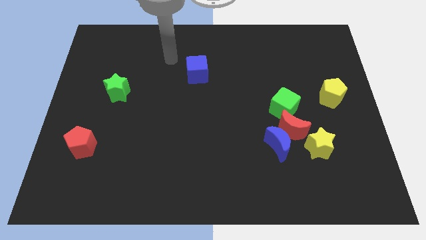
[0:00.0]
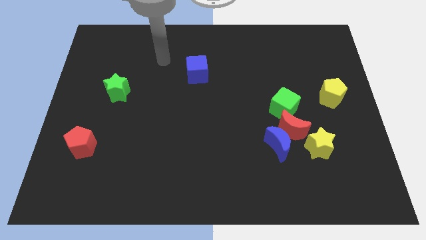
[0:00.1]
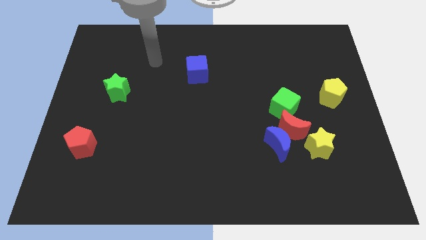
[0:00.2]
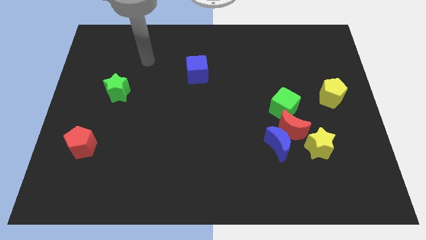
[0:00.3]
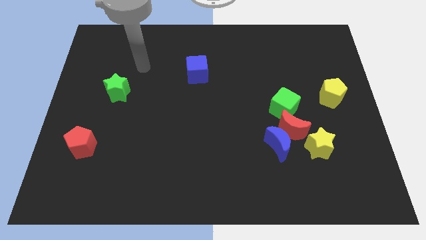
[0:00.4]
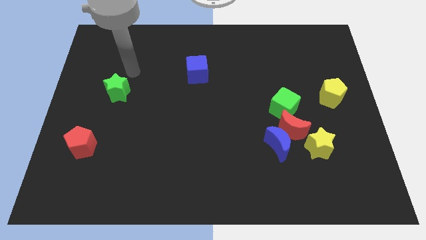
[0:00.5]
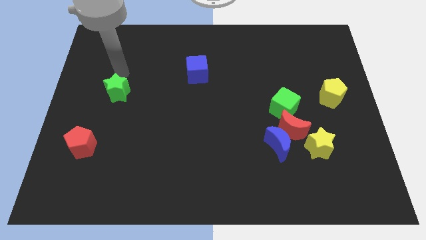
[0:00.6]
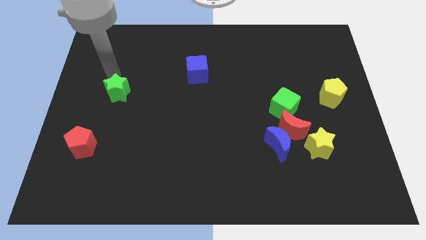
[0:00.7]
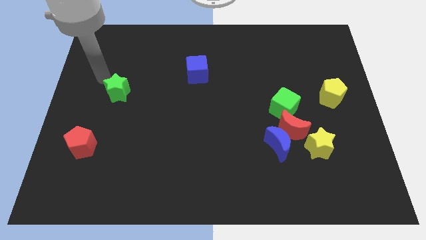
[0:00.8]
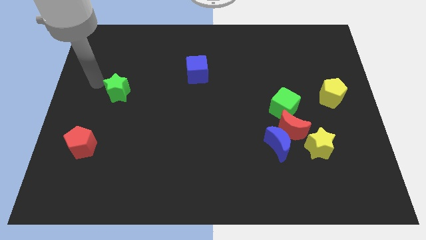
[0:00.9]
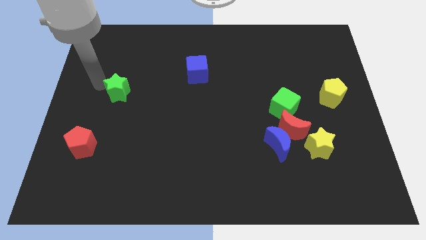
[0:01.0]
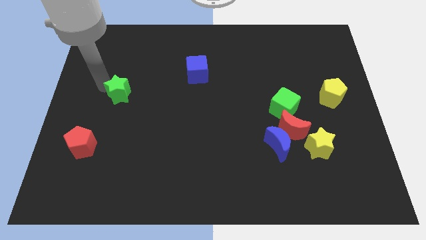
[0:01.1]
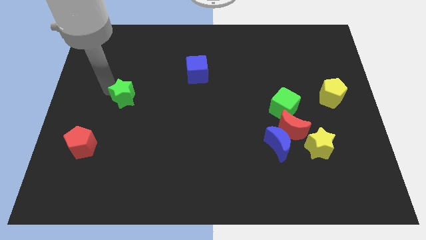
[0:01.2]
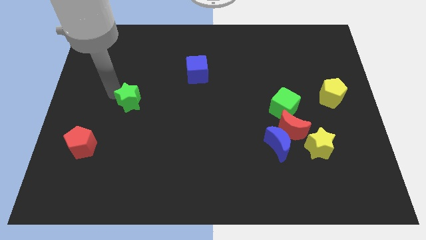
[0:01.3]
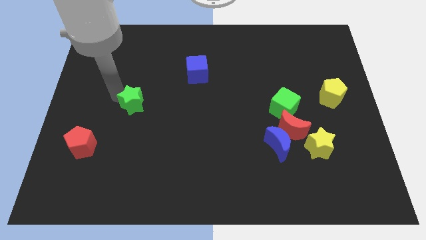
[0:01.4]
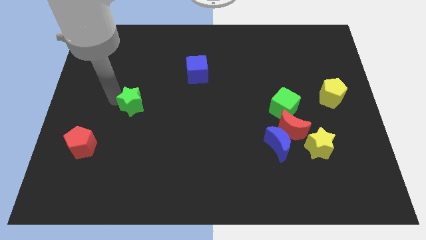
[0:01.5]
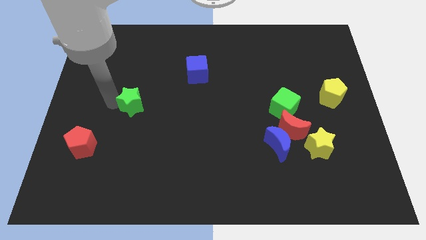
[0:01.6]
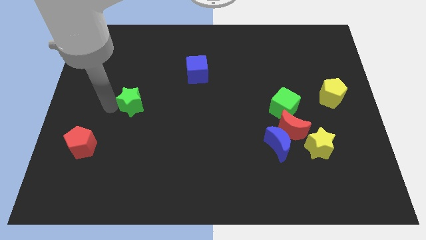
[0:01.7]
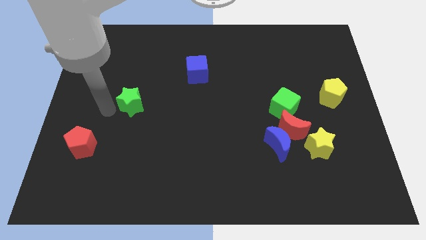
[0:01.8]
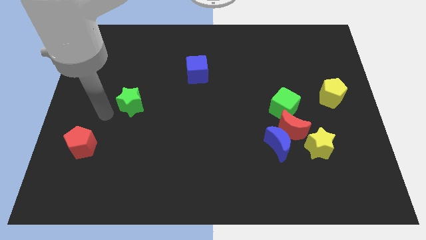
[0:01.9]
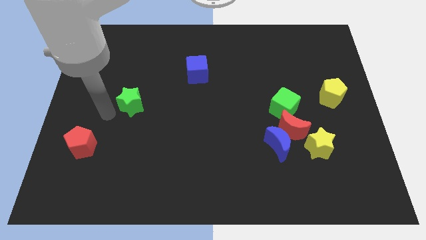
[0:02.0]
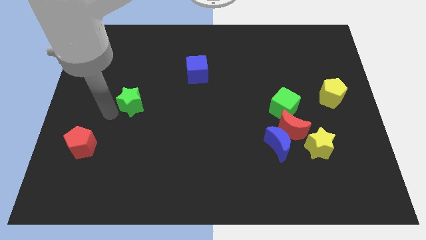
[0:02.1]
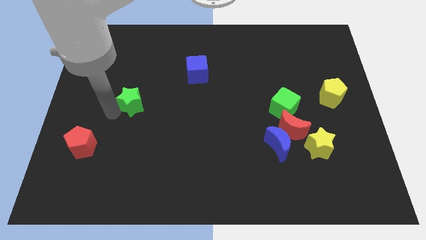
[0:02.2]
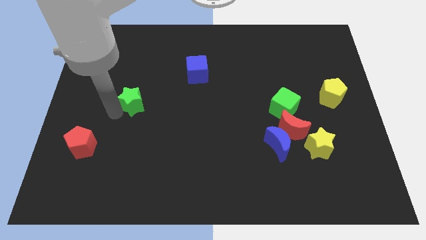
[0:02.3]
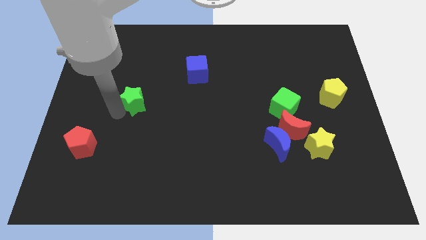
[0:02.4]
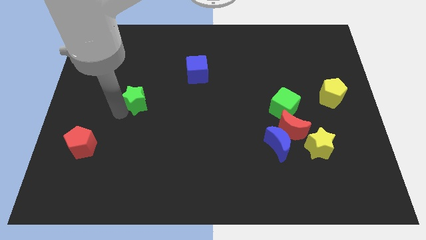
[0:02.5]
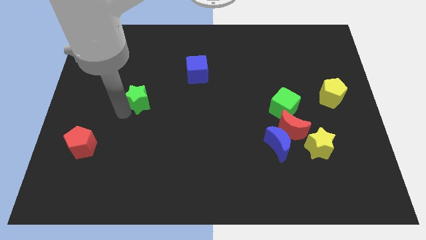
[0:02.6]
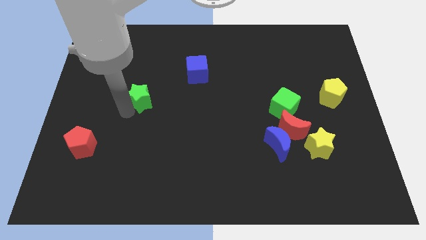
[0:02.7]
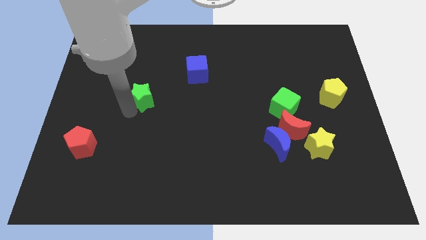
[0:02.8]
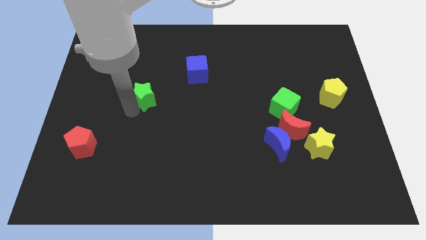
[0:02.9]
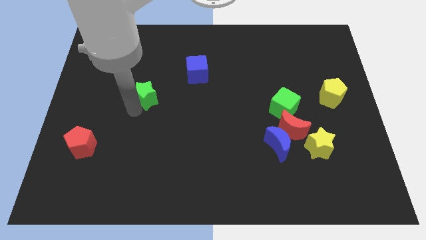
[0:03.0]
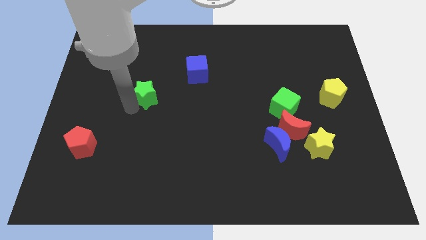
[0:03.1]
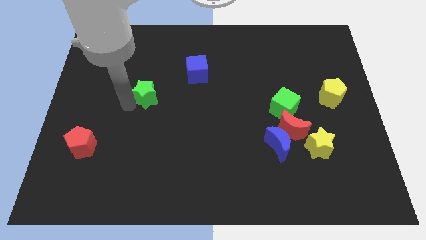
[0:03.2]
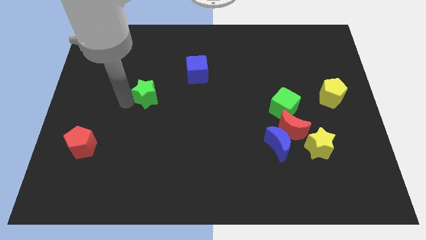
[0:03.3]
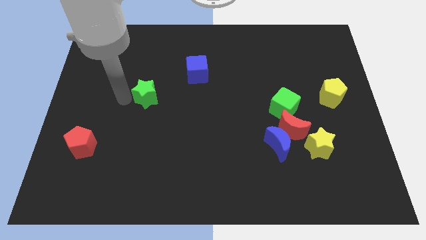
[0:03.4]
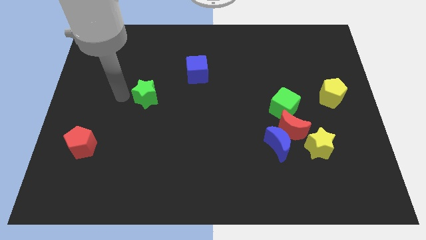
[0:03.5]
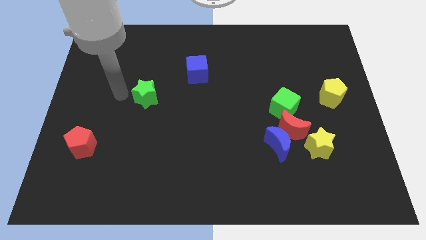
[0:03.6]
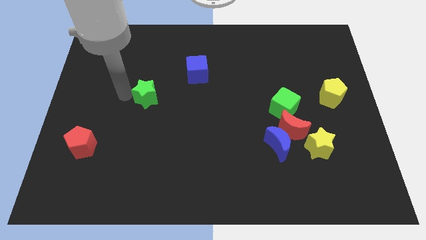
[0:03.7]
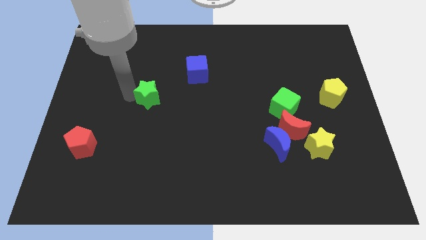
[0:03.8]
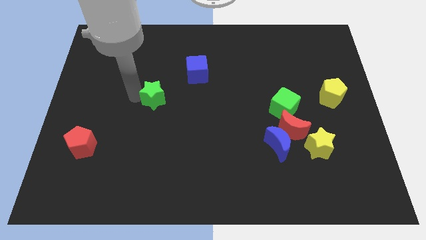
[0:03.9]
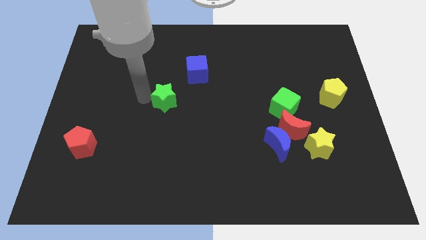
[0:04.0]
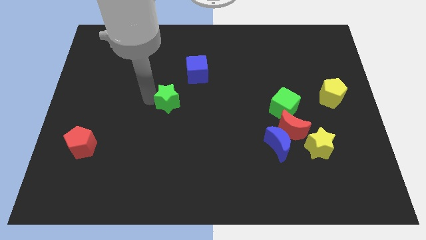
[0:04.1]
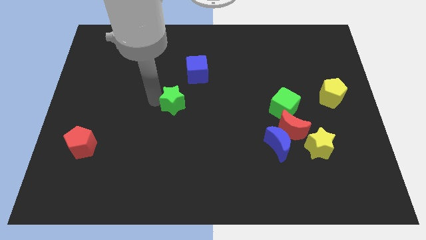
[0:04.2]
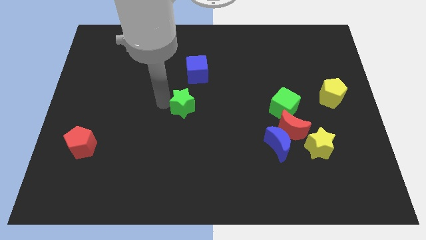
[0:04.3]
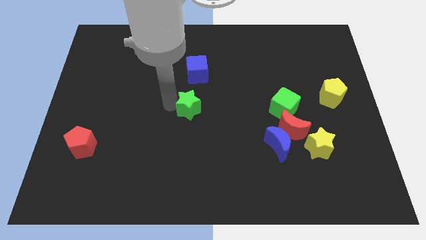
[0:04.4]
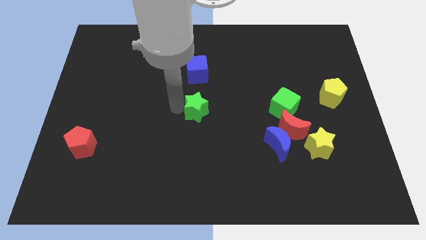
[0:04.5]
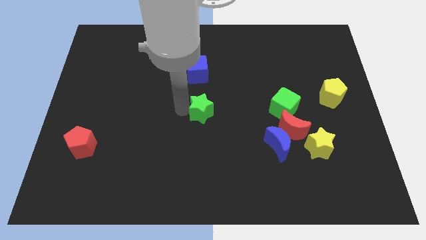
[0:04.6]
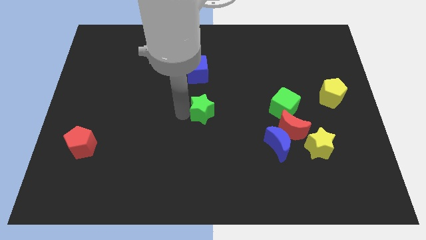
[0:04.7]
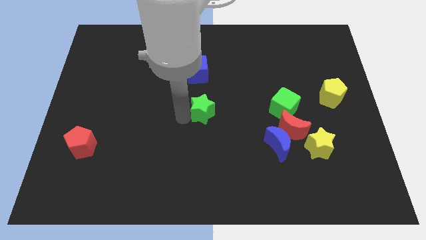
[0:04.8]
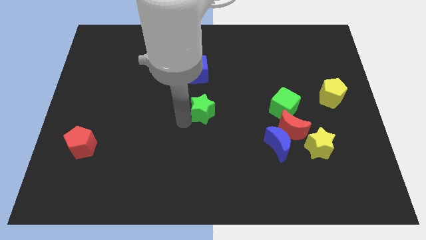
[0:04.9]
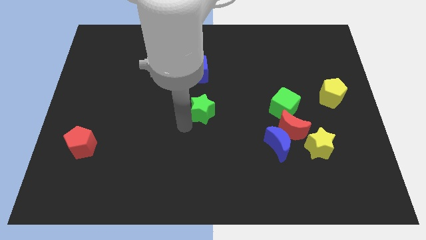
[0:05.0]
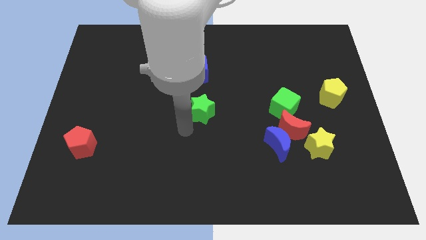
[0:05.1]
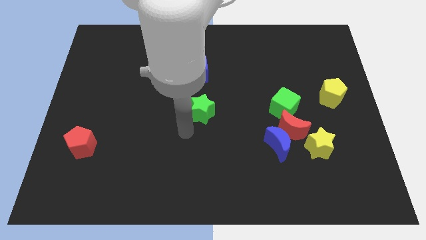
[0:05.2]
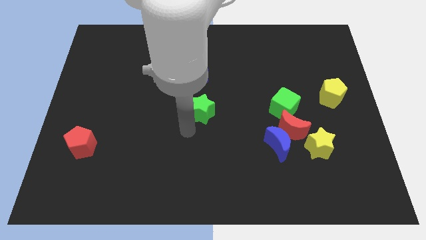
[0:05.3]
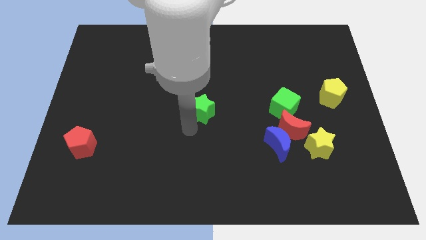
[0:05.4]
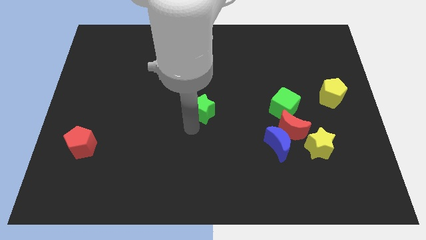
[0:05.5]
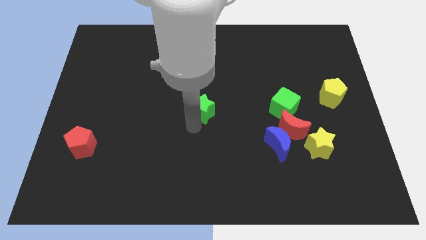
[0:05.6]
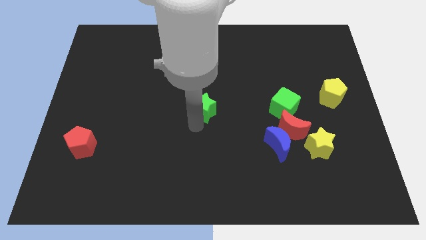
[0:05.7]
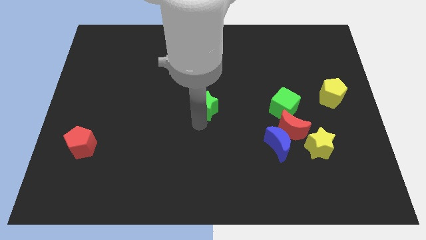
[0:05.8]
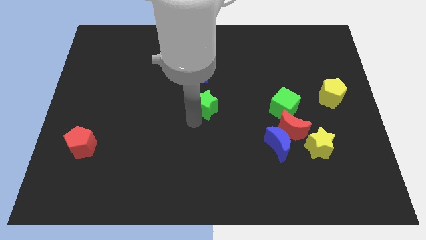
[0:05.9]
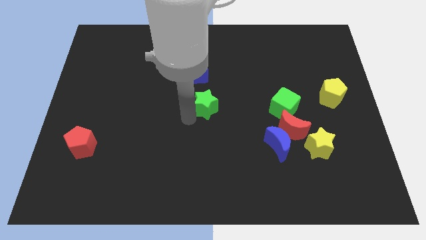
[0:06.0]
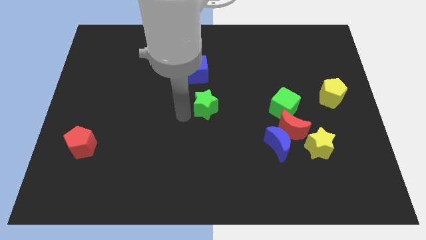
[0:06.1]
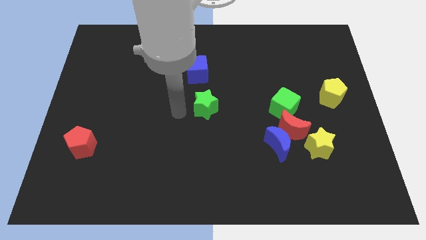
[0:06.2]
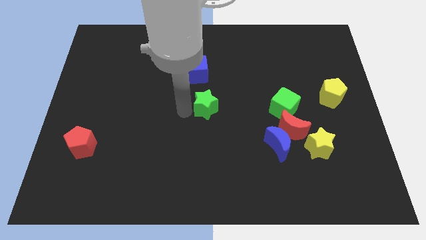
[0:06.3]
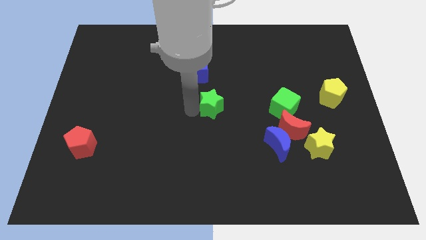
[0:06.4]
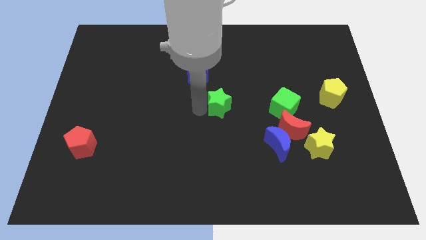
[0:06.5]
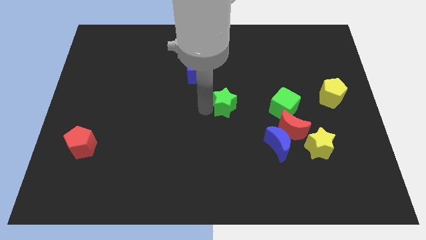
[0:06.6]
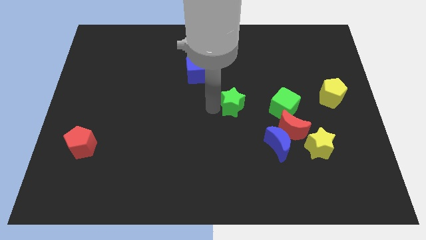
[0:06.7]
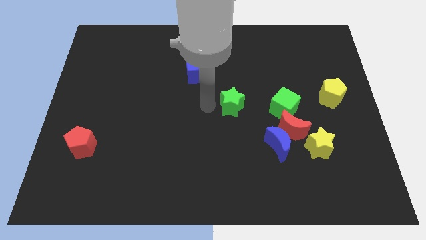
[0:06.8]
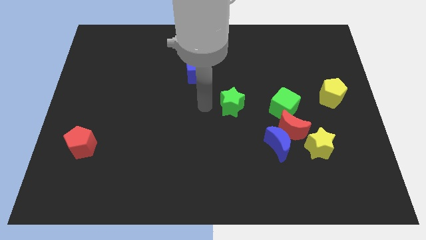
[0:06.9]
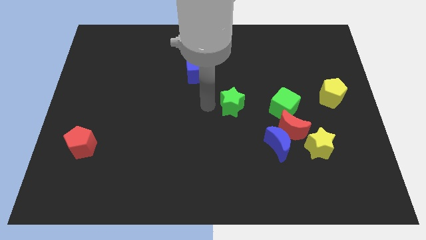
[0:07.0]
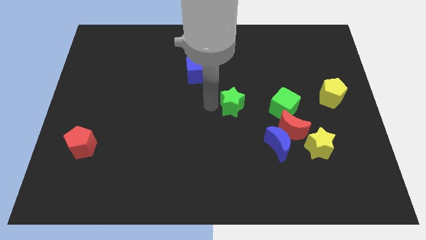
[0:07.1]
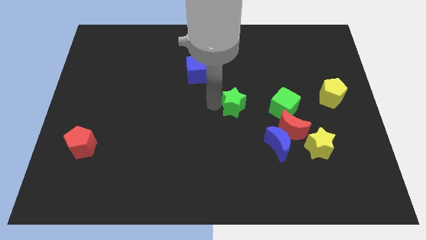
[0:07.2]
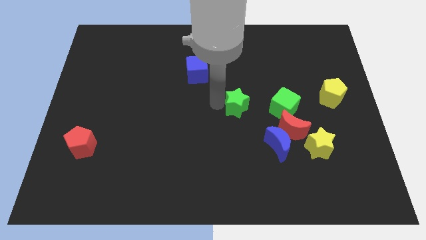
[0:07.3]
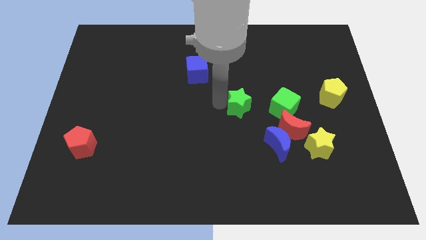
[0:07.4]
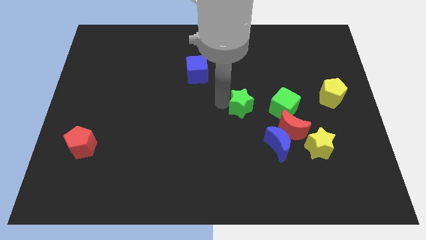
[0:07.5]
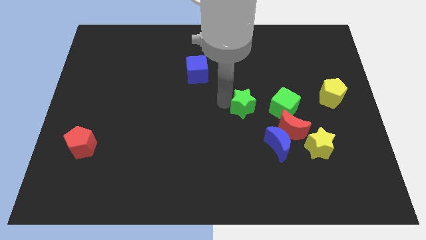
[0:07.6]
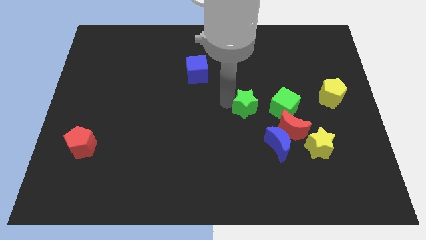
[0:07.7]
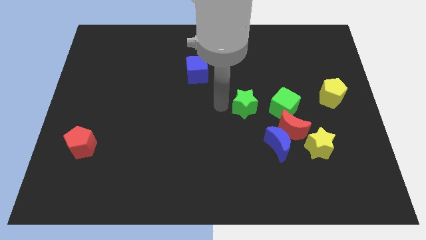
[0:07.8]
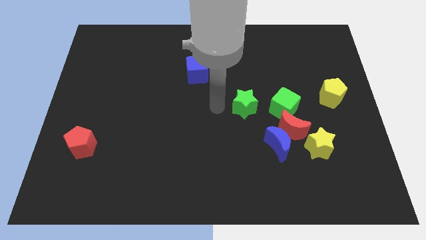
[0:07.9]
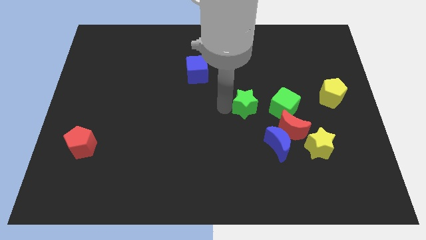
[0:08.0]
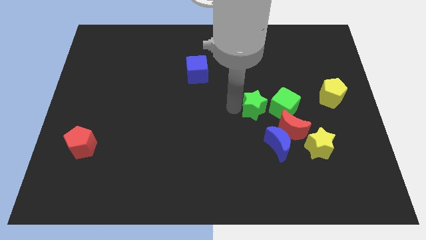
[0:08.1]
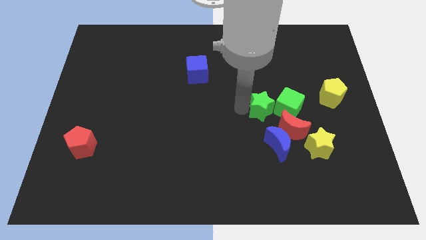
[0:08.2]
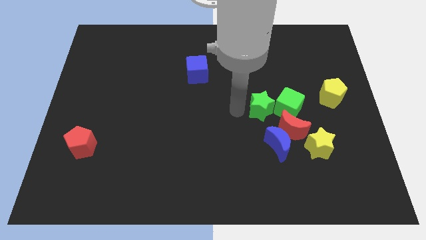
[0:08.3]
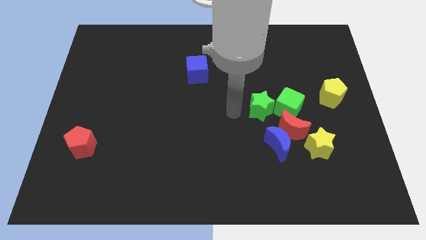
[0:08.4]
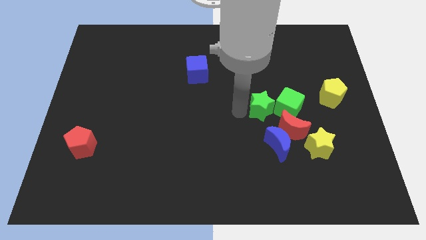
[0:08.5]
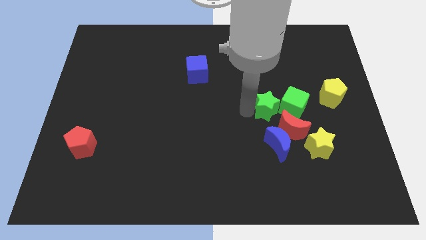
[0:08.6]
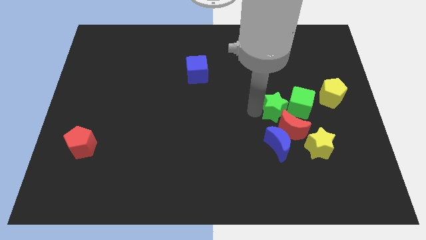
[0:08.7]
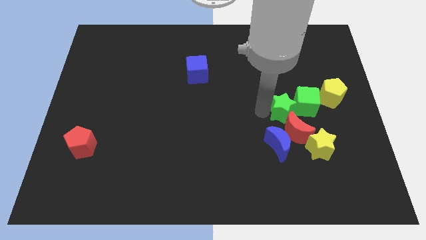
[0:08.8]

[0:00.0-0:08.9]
slide the green star towards the green cube
